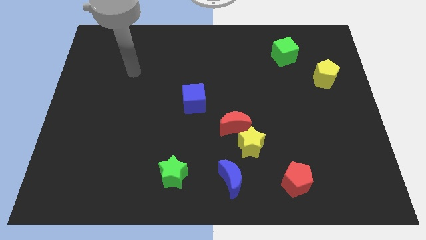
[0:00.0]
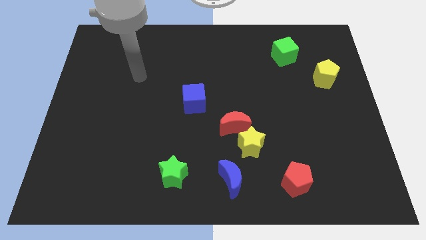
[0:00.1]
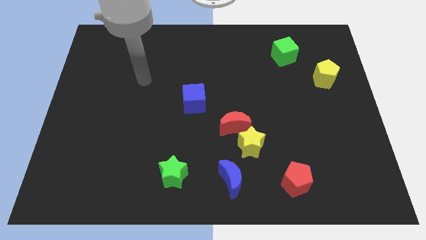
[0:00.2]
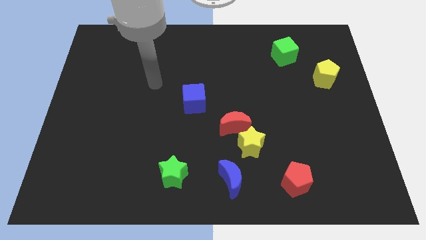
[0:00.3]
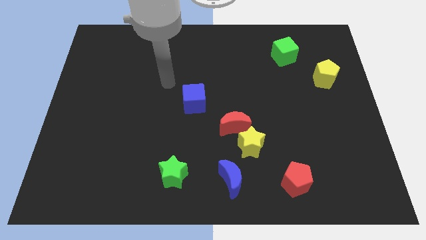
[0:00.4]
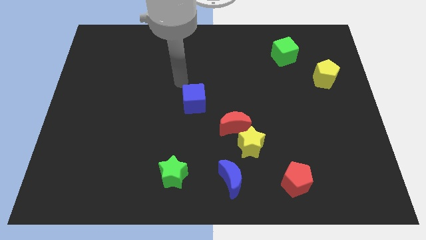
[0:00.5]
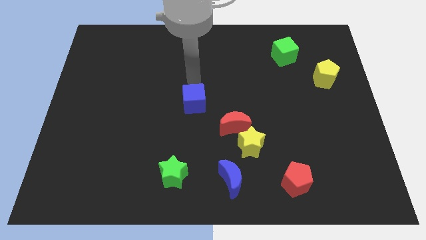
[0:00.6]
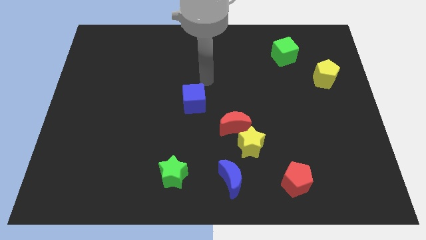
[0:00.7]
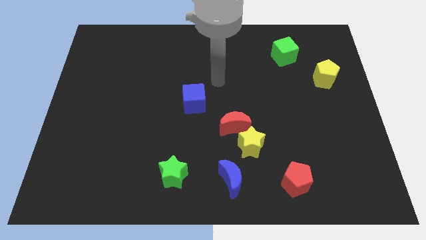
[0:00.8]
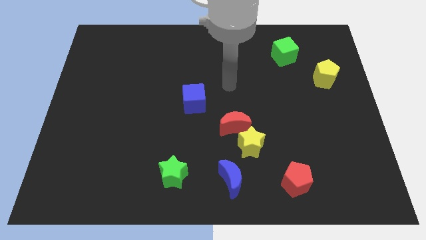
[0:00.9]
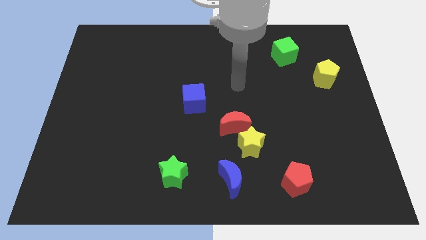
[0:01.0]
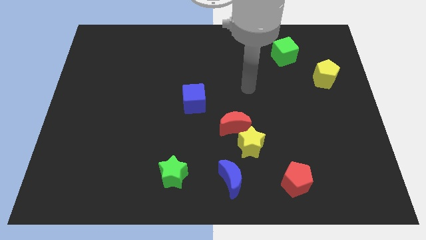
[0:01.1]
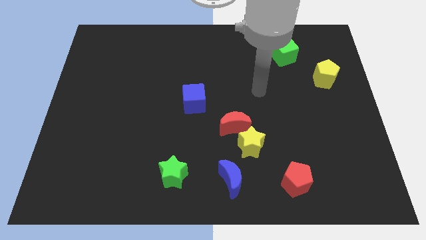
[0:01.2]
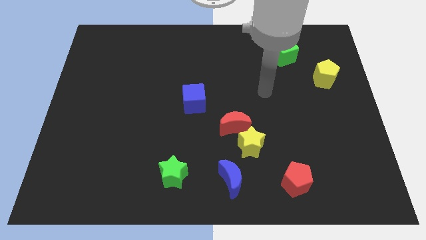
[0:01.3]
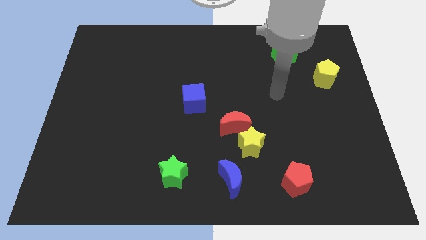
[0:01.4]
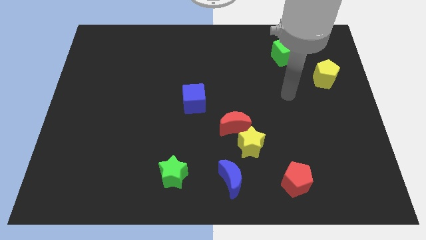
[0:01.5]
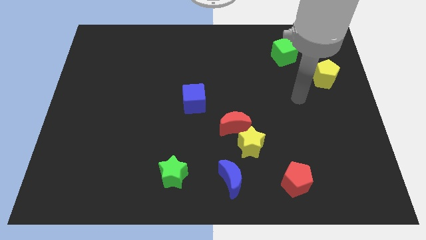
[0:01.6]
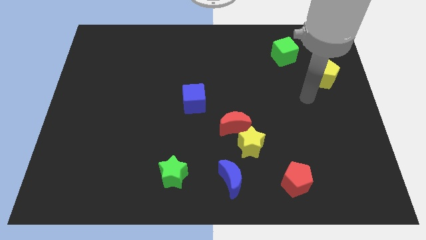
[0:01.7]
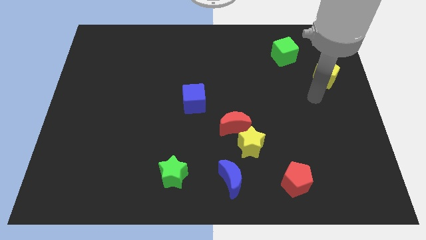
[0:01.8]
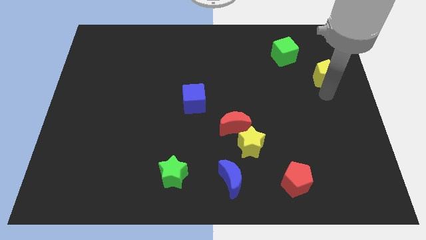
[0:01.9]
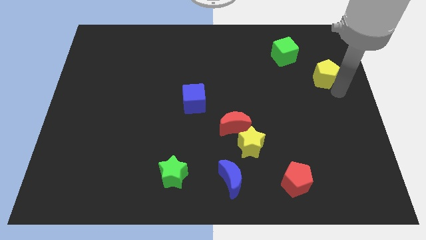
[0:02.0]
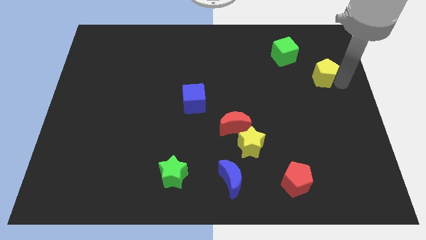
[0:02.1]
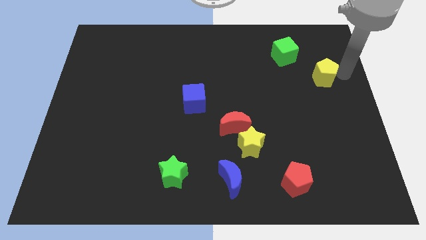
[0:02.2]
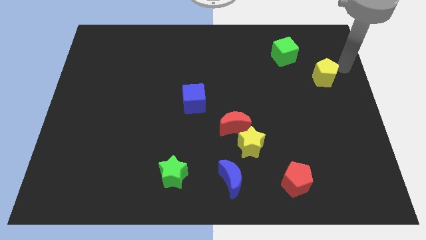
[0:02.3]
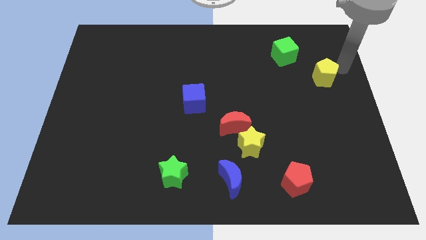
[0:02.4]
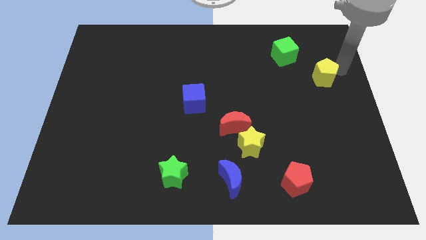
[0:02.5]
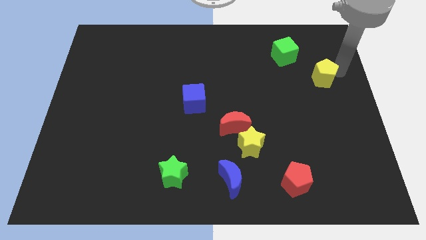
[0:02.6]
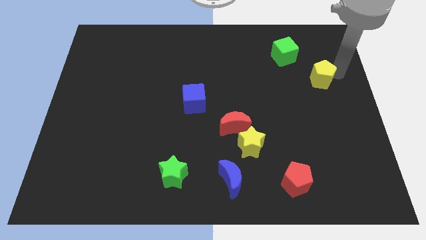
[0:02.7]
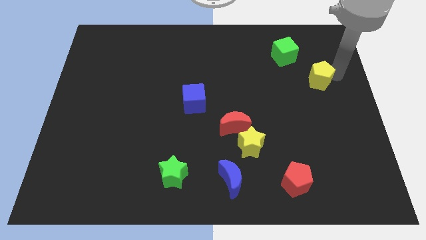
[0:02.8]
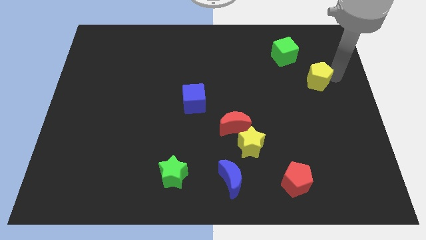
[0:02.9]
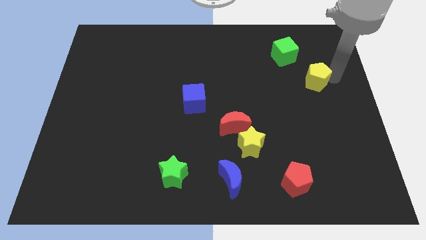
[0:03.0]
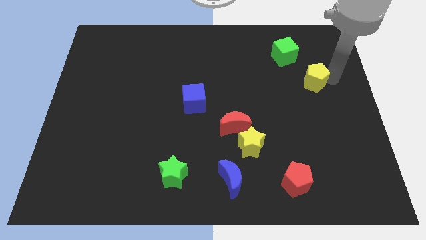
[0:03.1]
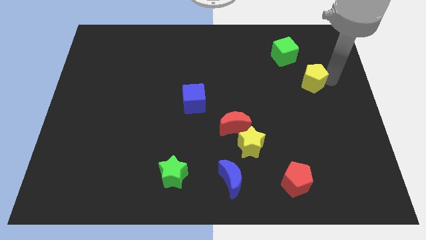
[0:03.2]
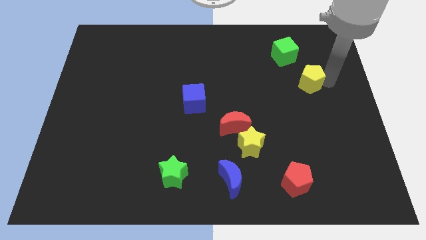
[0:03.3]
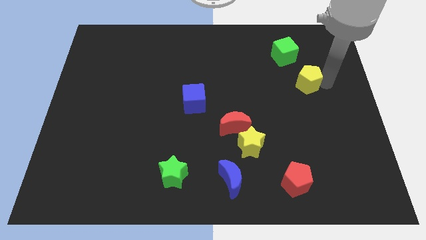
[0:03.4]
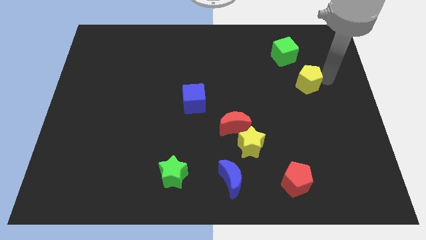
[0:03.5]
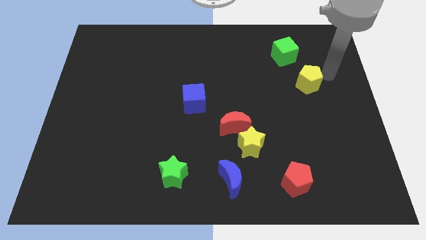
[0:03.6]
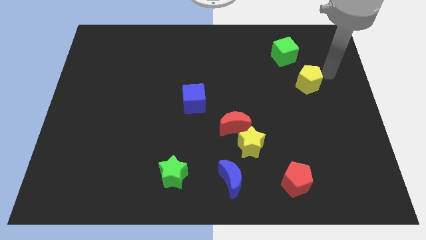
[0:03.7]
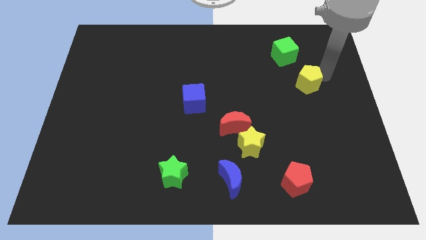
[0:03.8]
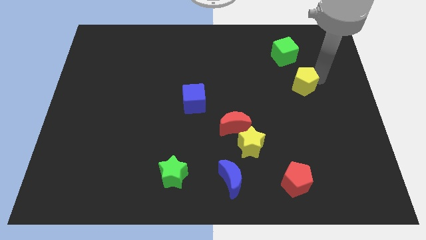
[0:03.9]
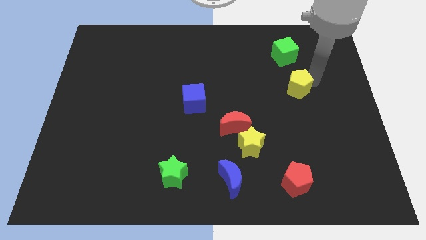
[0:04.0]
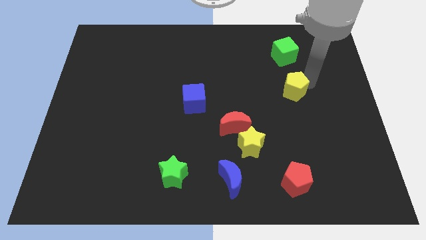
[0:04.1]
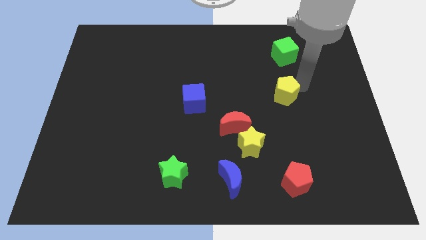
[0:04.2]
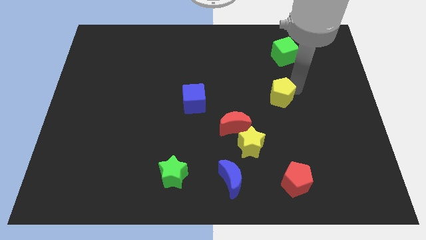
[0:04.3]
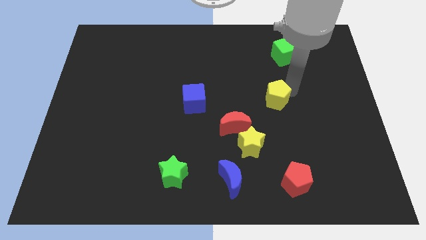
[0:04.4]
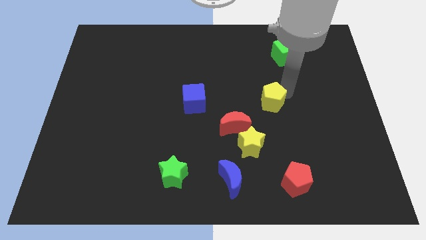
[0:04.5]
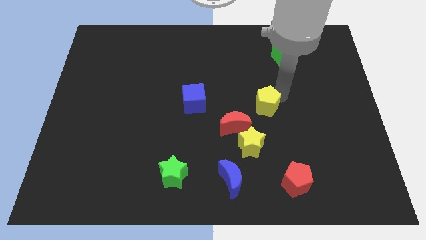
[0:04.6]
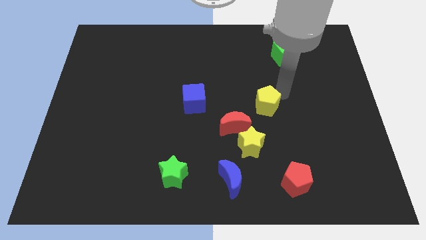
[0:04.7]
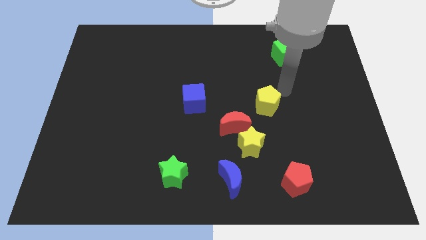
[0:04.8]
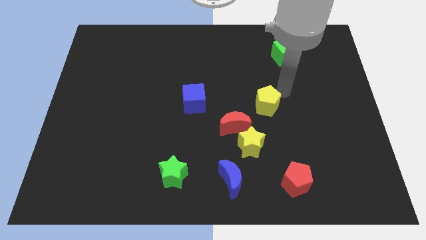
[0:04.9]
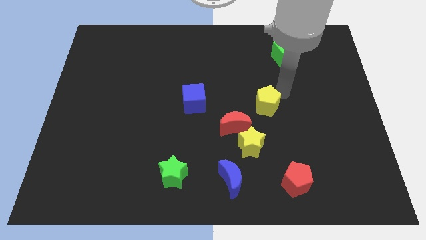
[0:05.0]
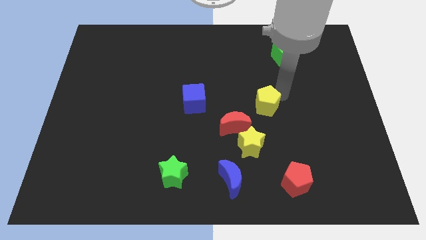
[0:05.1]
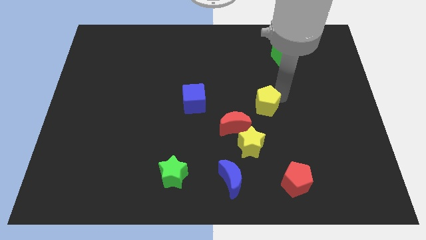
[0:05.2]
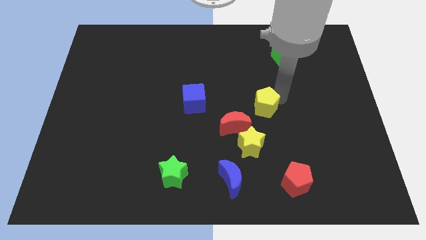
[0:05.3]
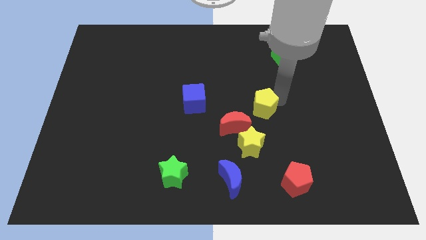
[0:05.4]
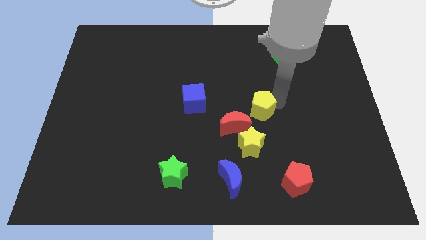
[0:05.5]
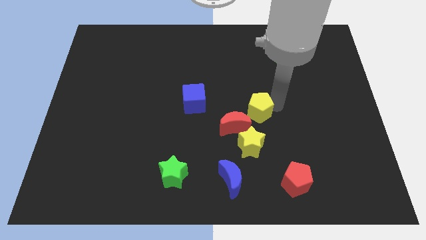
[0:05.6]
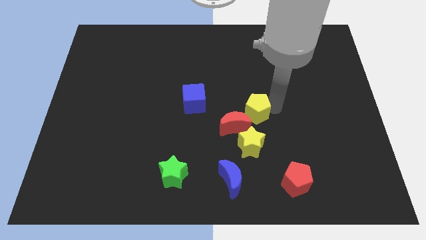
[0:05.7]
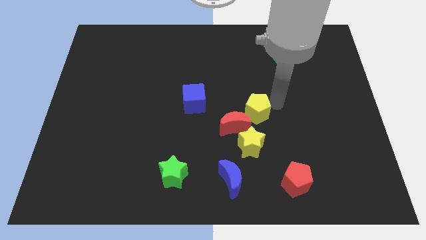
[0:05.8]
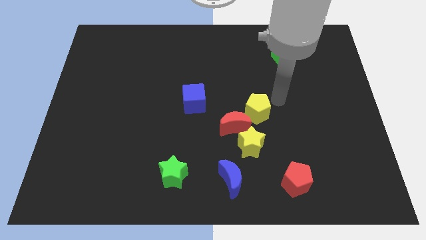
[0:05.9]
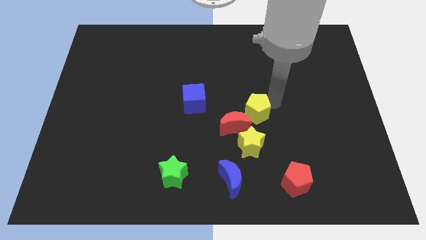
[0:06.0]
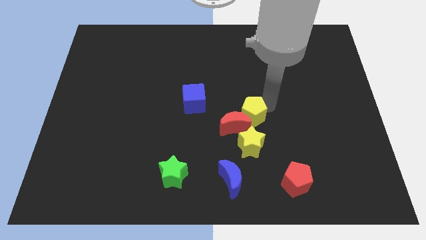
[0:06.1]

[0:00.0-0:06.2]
push the yellow pentagon towards the red moon

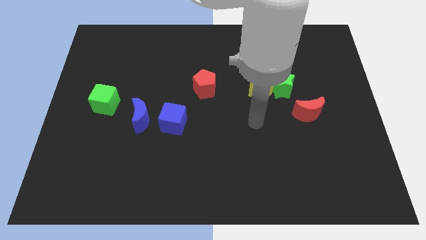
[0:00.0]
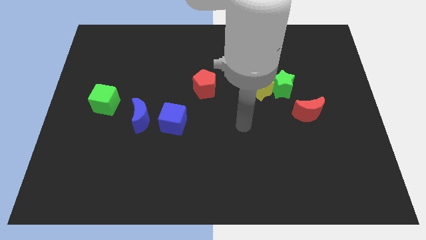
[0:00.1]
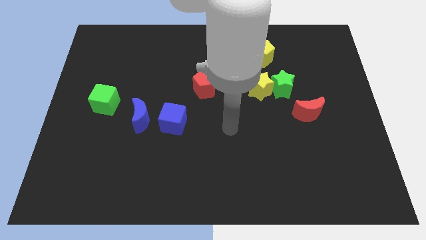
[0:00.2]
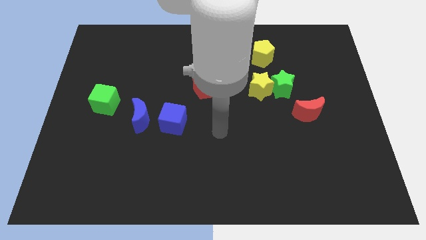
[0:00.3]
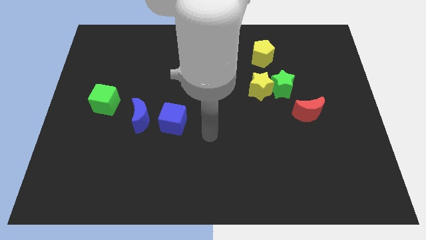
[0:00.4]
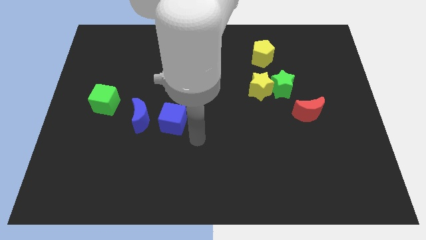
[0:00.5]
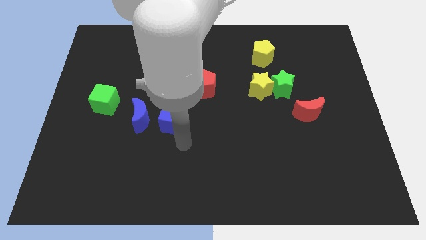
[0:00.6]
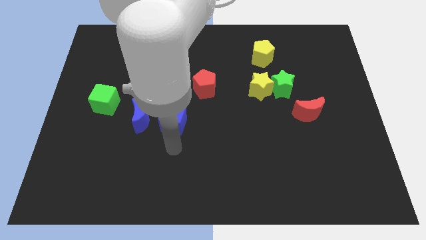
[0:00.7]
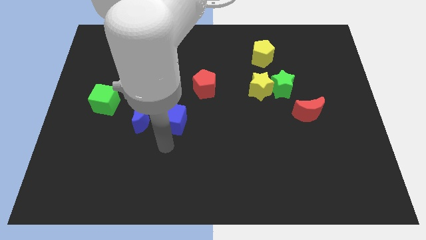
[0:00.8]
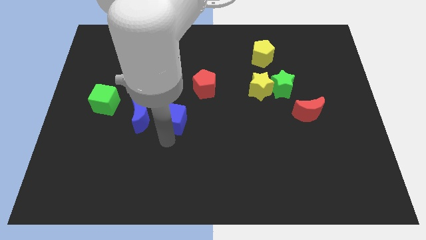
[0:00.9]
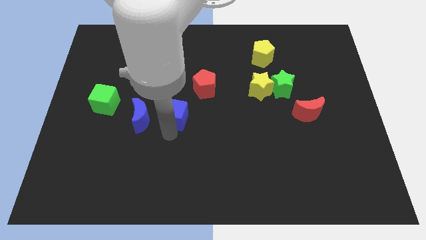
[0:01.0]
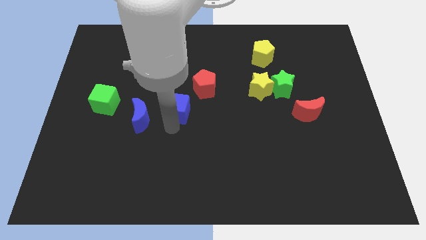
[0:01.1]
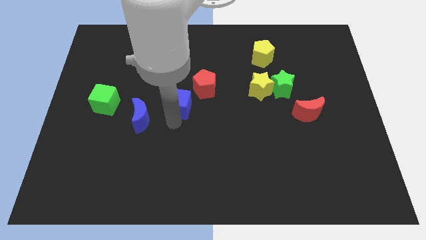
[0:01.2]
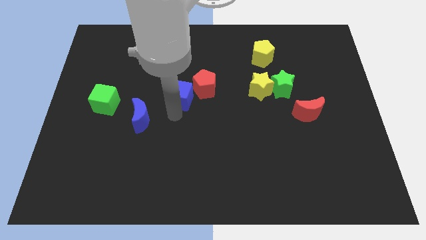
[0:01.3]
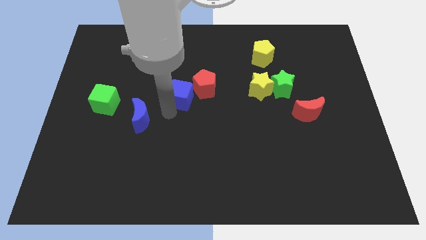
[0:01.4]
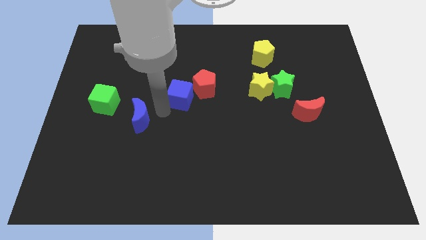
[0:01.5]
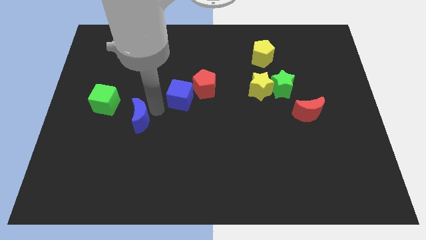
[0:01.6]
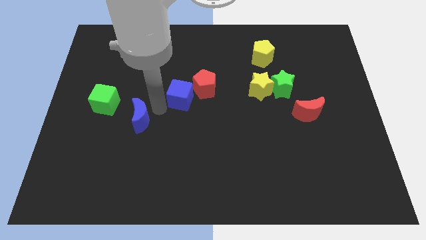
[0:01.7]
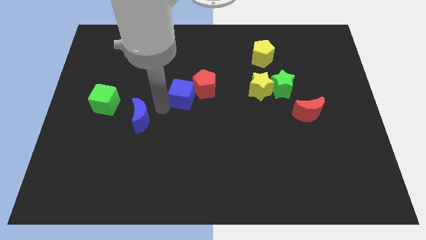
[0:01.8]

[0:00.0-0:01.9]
push the blue cube next to the red pentagon
